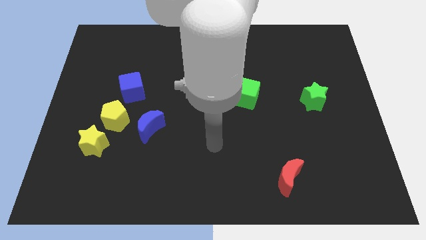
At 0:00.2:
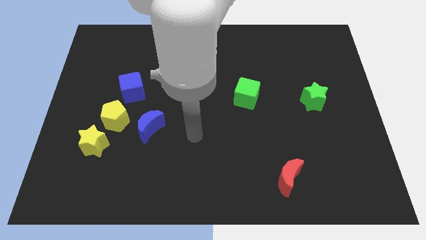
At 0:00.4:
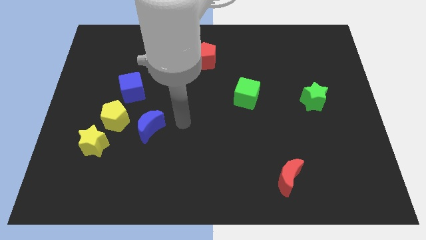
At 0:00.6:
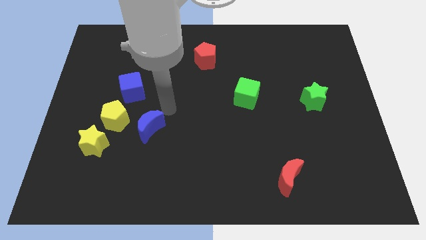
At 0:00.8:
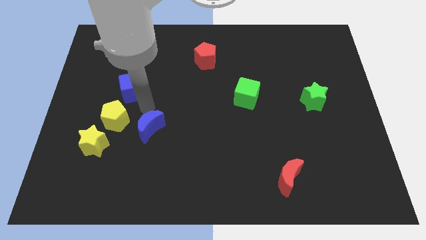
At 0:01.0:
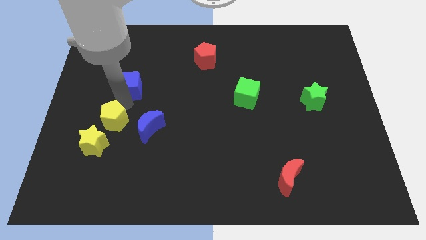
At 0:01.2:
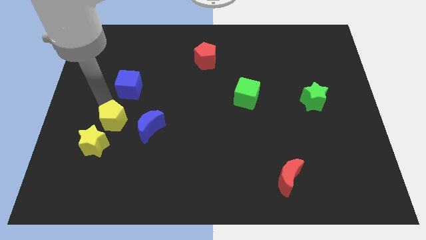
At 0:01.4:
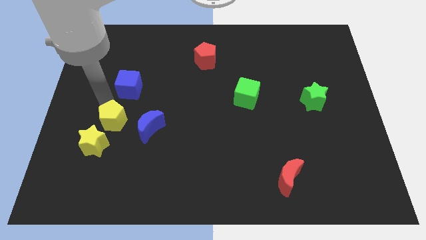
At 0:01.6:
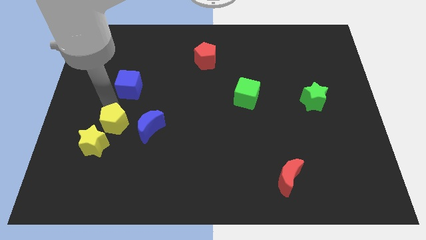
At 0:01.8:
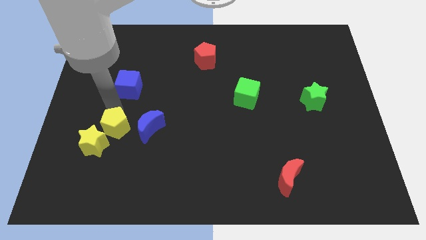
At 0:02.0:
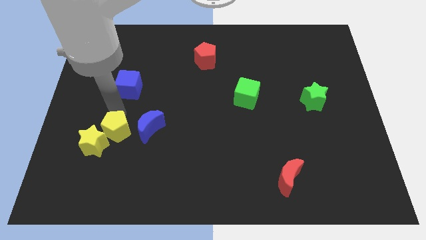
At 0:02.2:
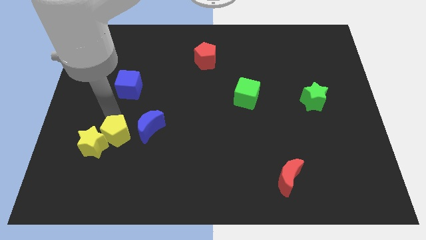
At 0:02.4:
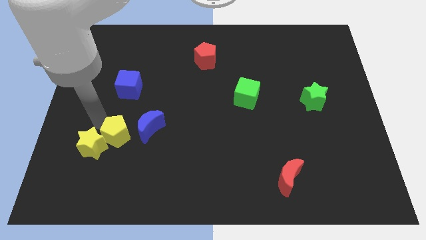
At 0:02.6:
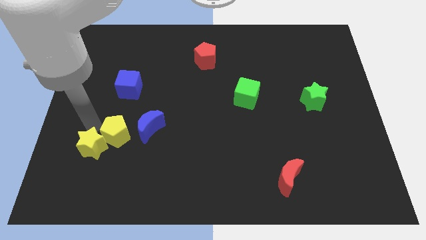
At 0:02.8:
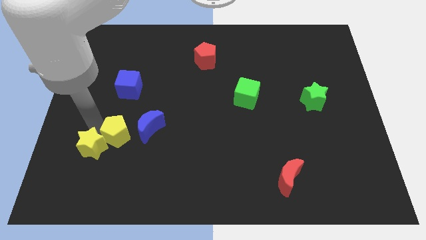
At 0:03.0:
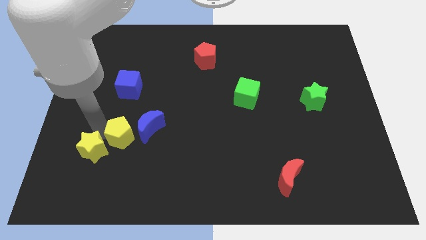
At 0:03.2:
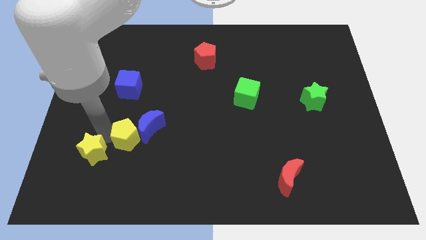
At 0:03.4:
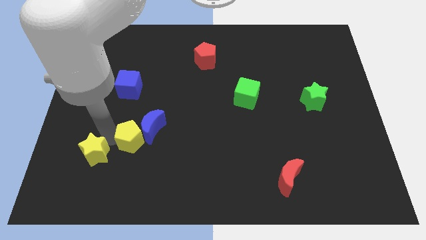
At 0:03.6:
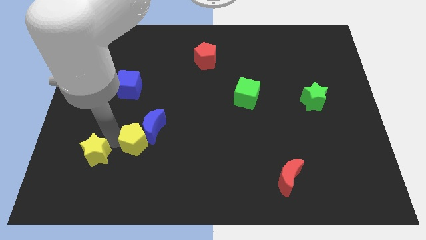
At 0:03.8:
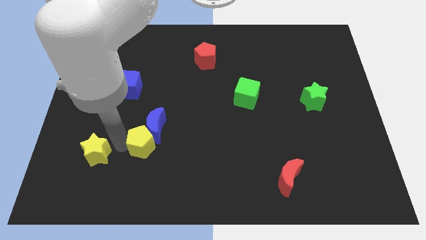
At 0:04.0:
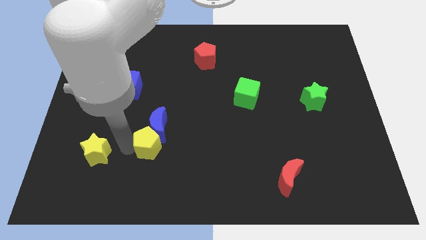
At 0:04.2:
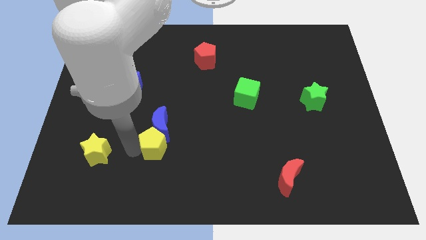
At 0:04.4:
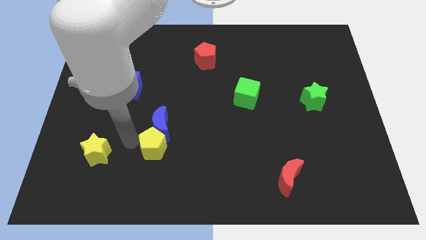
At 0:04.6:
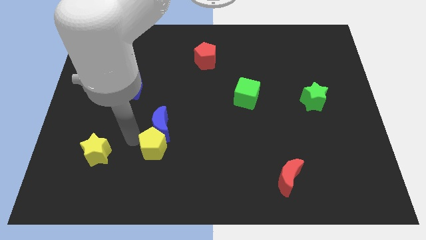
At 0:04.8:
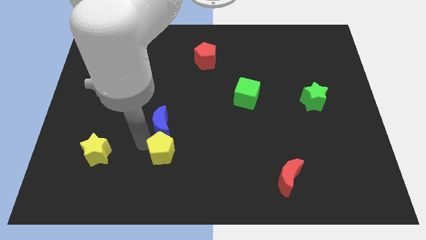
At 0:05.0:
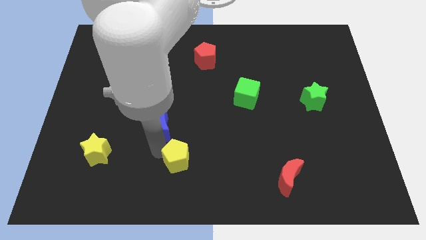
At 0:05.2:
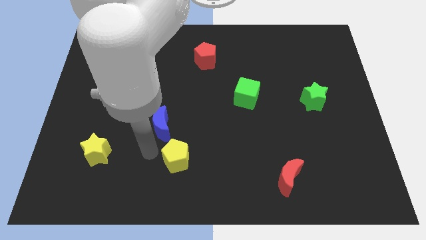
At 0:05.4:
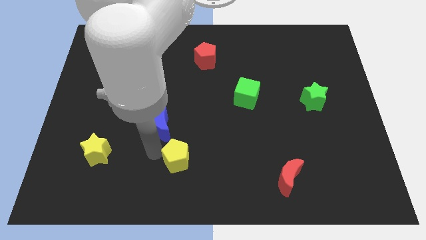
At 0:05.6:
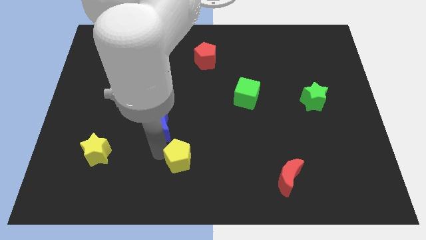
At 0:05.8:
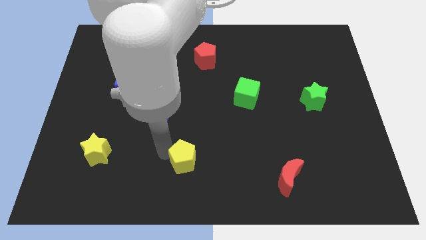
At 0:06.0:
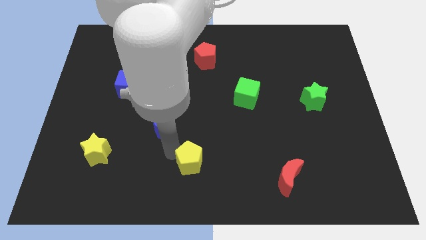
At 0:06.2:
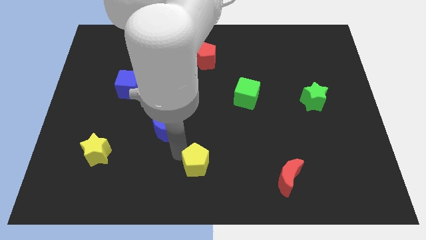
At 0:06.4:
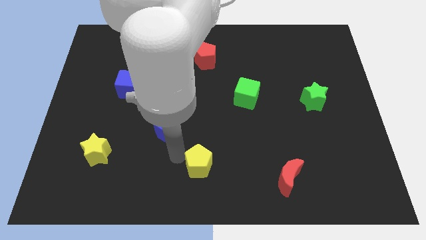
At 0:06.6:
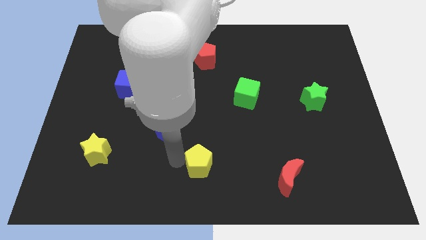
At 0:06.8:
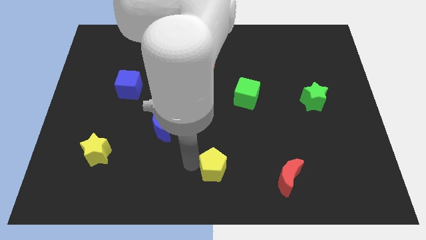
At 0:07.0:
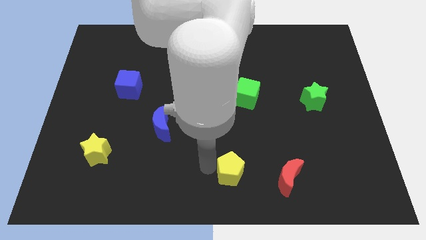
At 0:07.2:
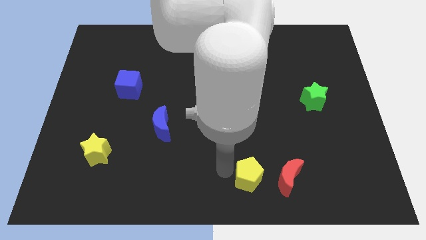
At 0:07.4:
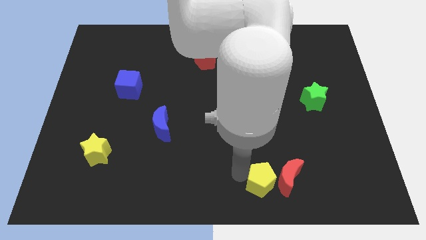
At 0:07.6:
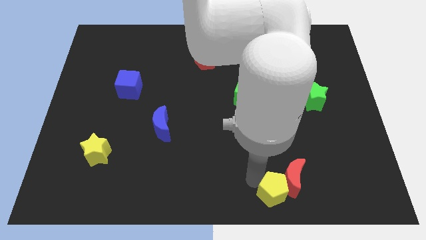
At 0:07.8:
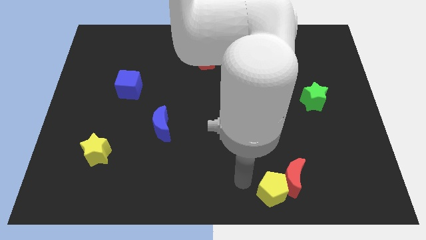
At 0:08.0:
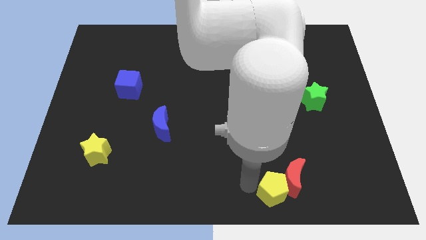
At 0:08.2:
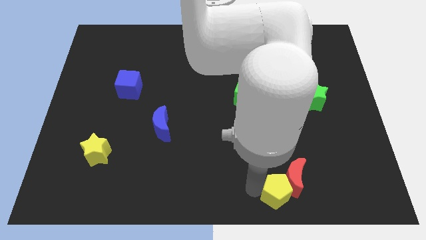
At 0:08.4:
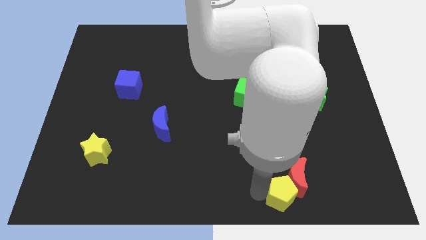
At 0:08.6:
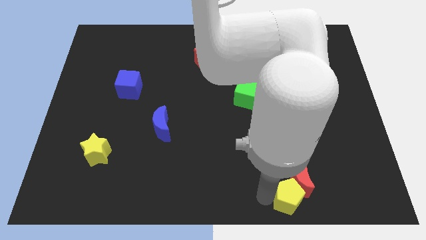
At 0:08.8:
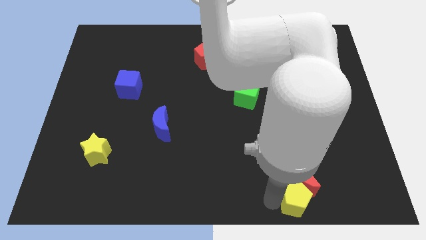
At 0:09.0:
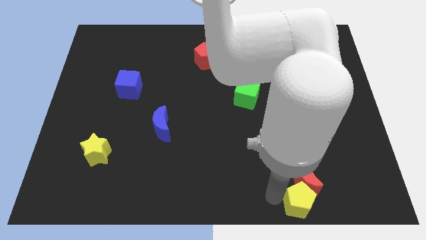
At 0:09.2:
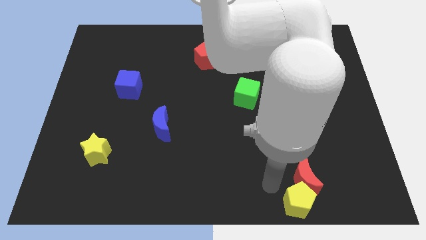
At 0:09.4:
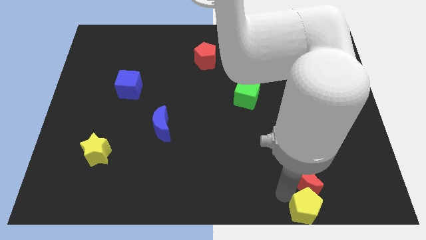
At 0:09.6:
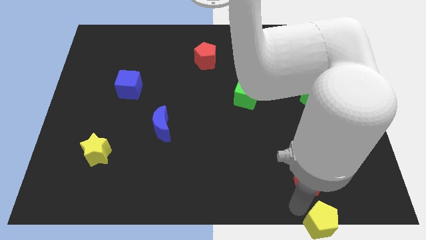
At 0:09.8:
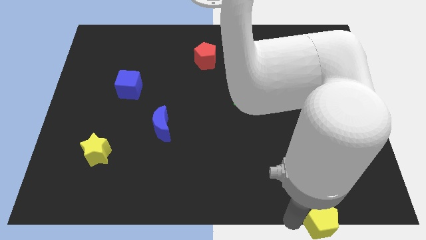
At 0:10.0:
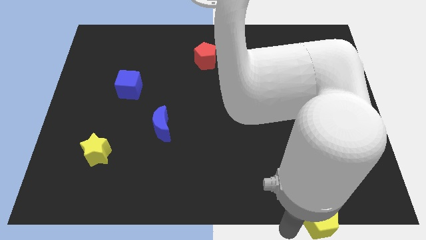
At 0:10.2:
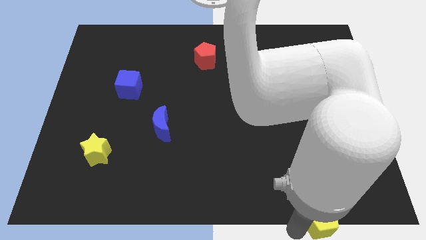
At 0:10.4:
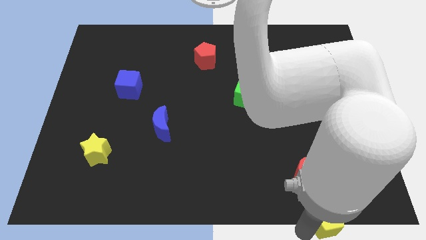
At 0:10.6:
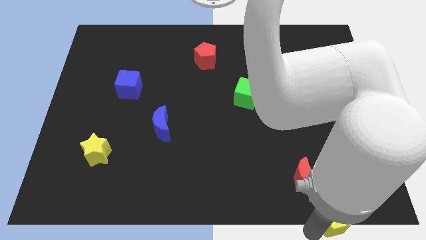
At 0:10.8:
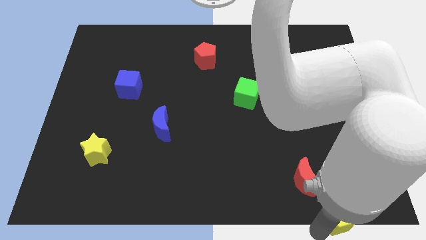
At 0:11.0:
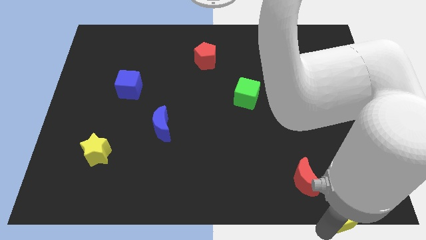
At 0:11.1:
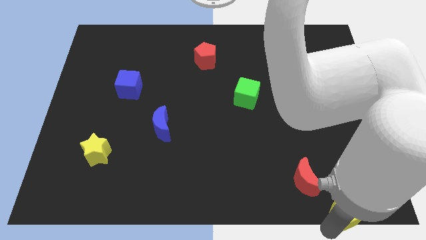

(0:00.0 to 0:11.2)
move the yellow pentagon to the lower right corner
